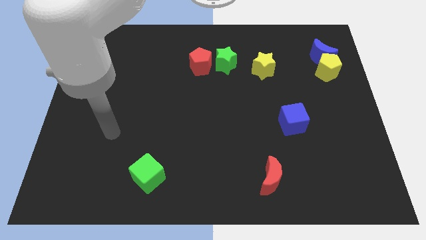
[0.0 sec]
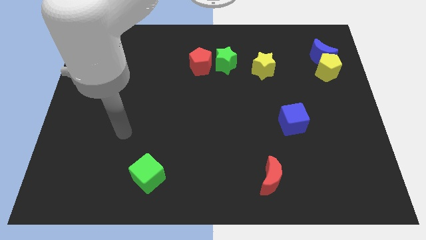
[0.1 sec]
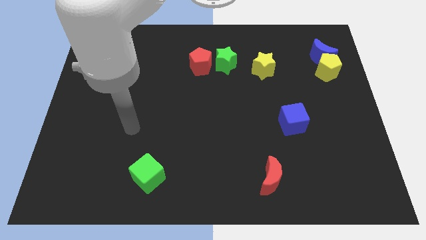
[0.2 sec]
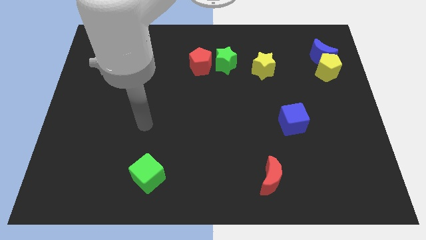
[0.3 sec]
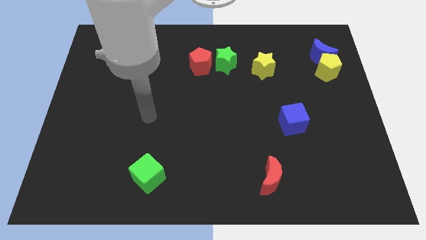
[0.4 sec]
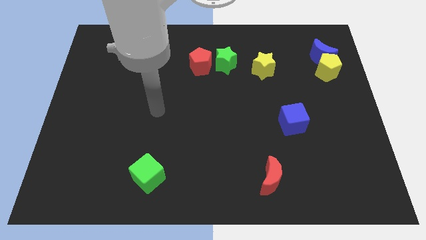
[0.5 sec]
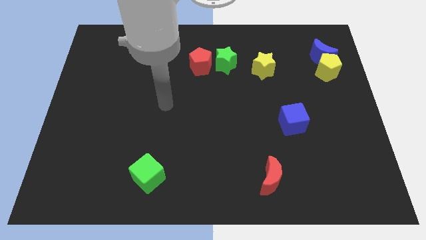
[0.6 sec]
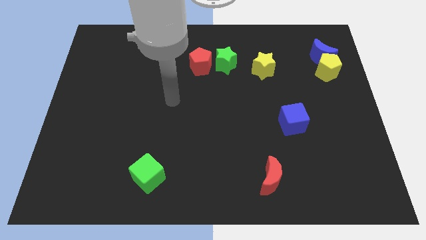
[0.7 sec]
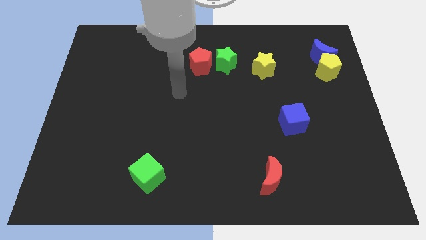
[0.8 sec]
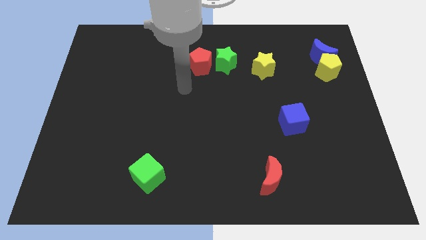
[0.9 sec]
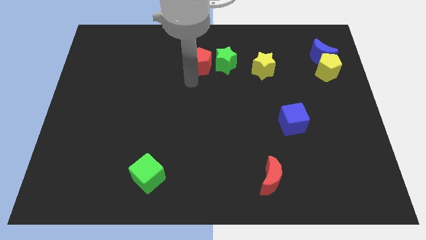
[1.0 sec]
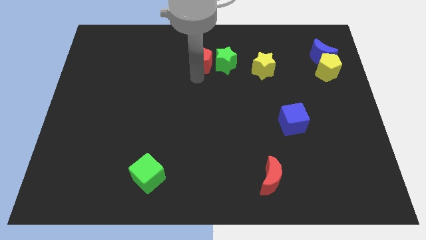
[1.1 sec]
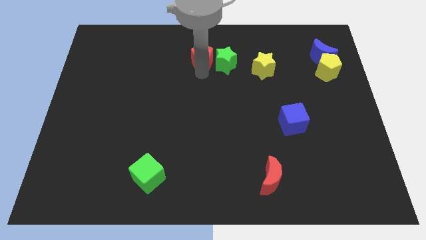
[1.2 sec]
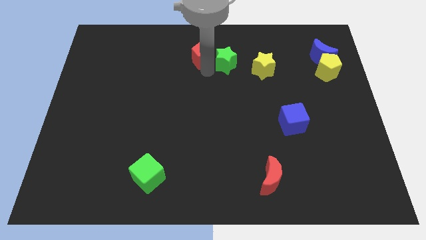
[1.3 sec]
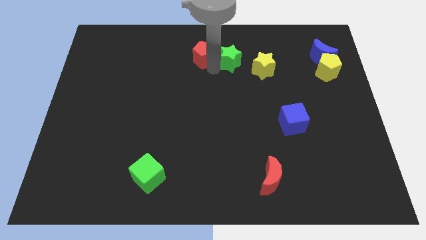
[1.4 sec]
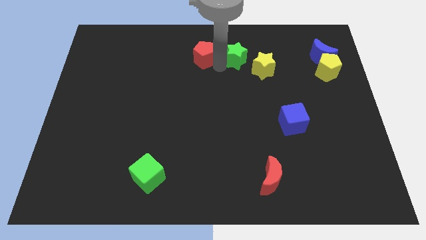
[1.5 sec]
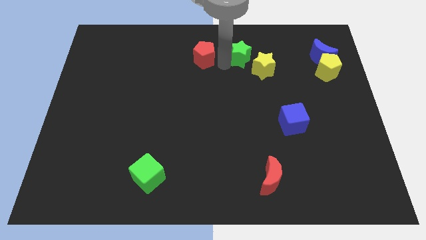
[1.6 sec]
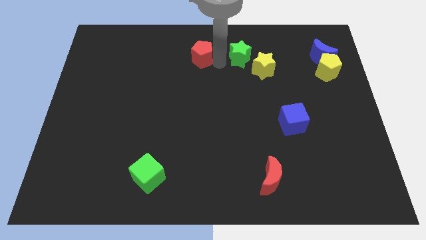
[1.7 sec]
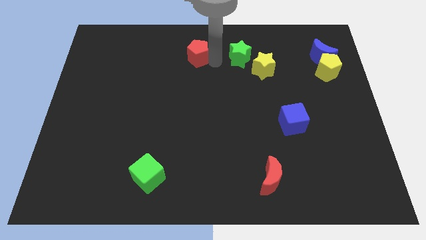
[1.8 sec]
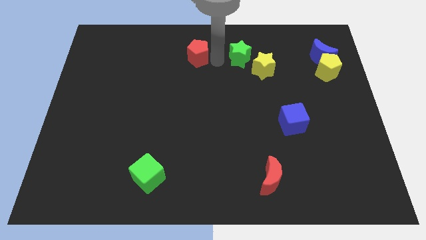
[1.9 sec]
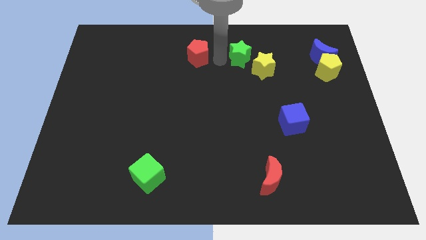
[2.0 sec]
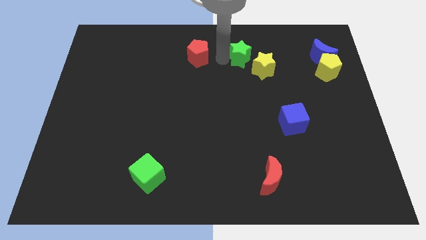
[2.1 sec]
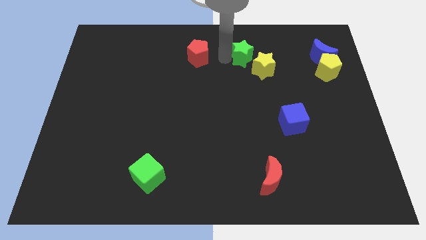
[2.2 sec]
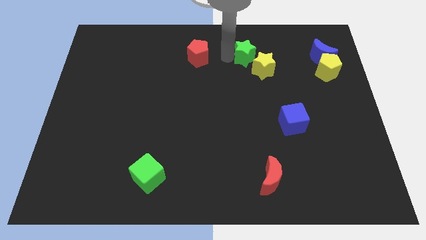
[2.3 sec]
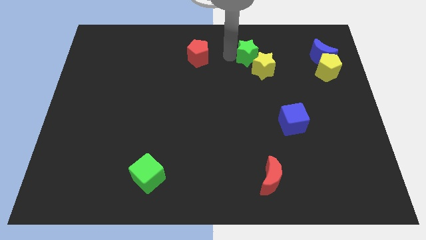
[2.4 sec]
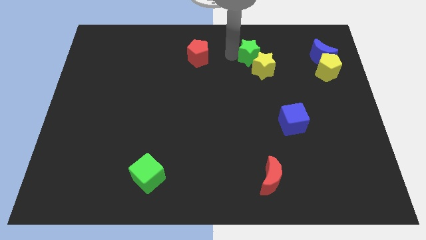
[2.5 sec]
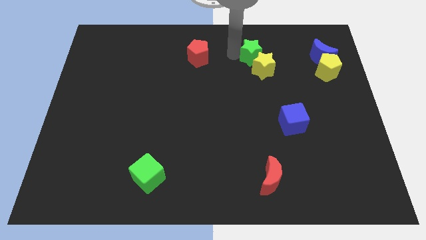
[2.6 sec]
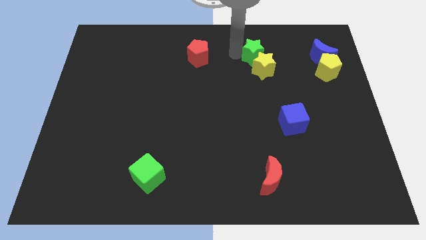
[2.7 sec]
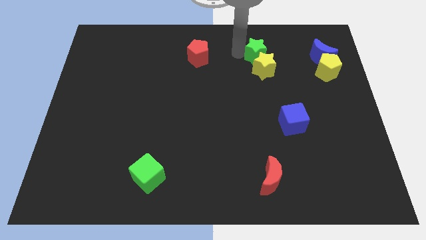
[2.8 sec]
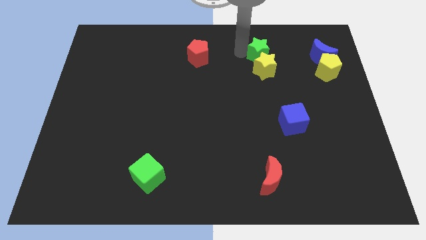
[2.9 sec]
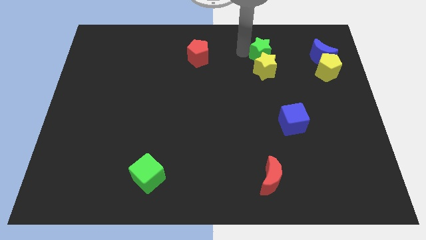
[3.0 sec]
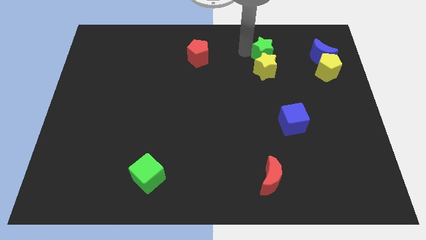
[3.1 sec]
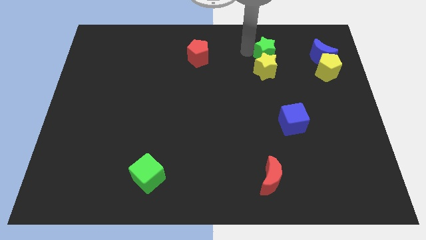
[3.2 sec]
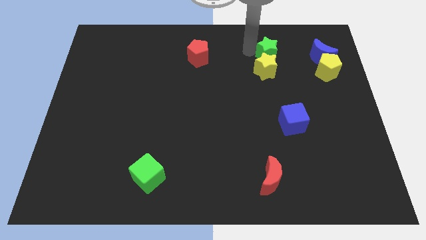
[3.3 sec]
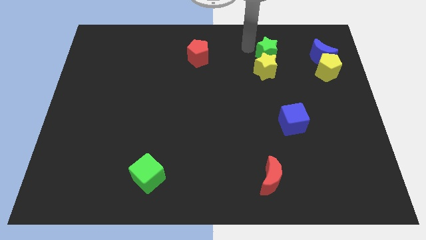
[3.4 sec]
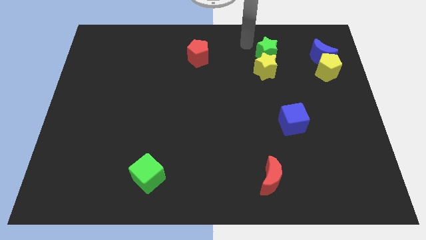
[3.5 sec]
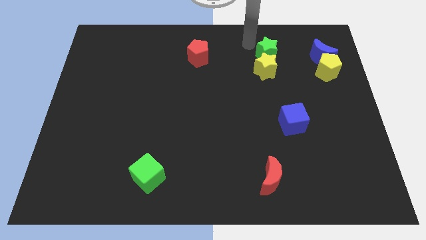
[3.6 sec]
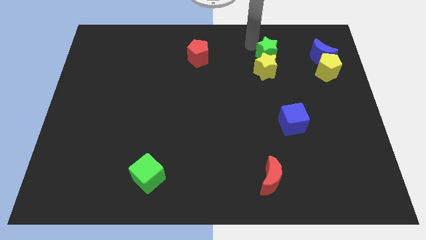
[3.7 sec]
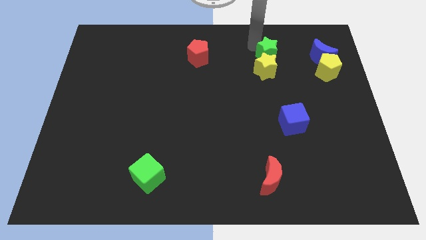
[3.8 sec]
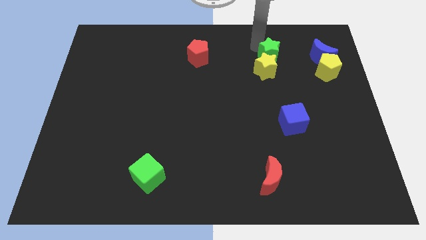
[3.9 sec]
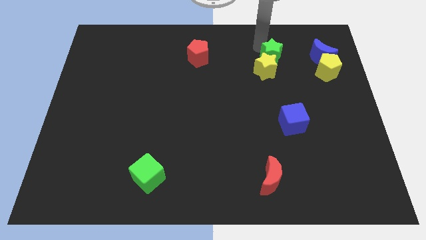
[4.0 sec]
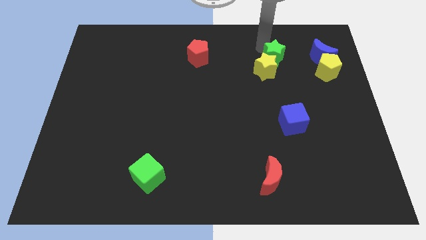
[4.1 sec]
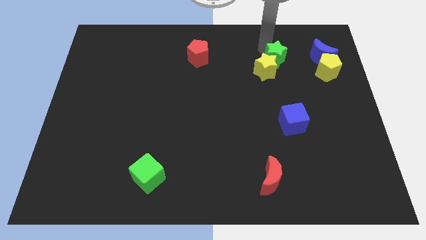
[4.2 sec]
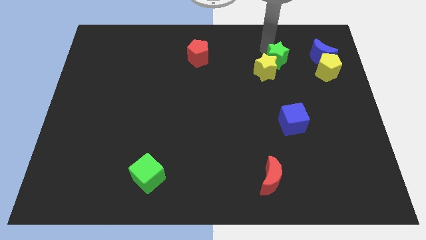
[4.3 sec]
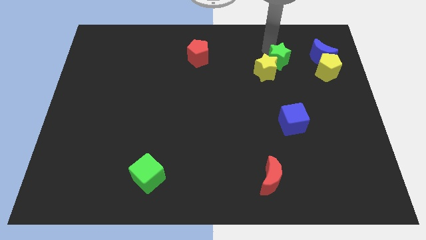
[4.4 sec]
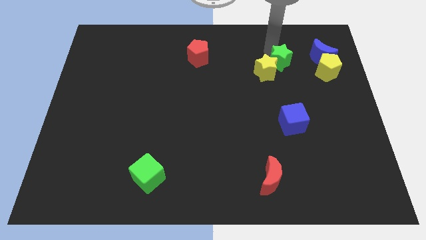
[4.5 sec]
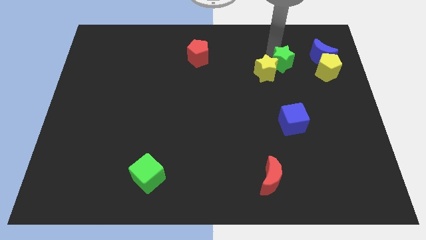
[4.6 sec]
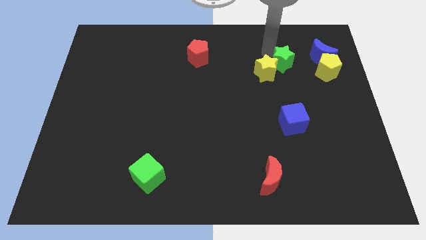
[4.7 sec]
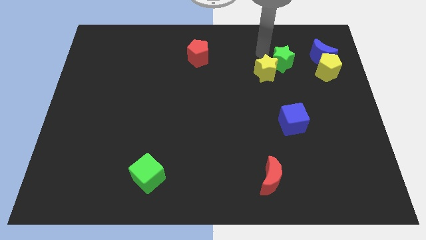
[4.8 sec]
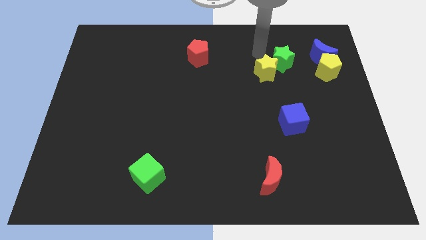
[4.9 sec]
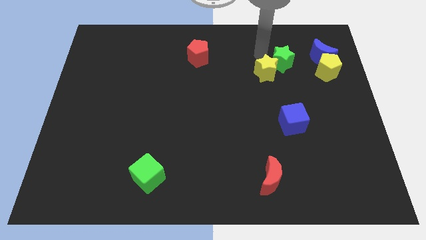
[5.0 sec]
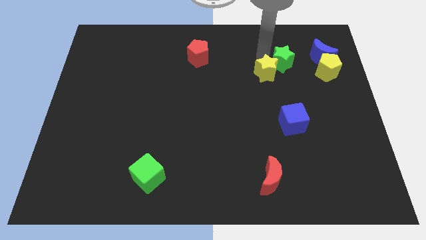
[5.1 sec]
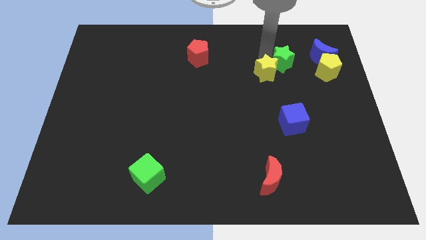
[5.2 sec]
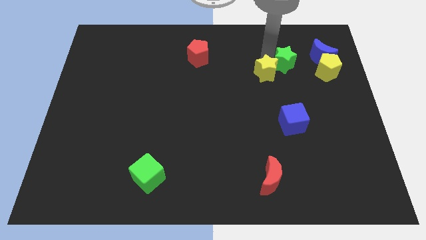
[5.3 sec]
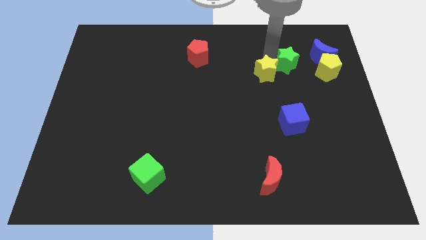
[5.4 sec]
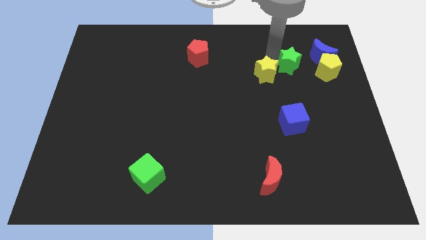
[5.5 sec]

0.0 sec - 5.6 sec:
put the green star to the bottom left of the blue moon

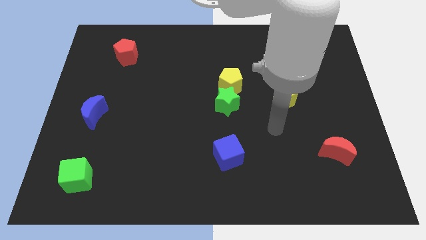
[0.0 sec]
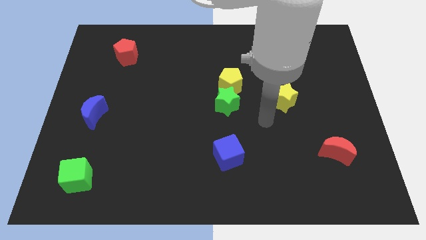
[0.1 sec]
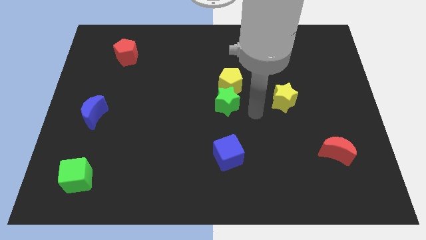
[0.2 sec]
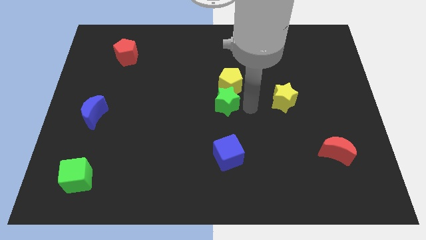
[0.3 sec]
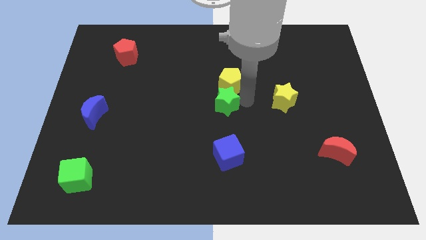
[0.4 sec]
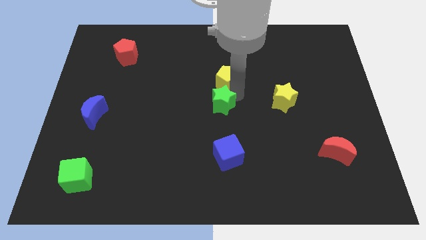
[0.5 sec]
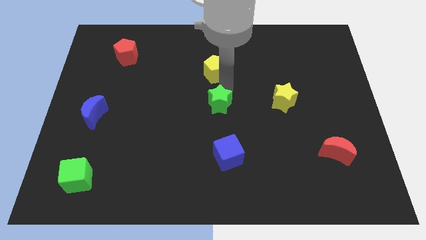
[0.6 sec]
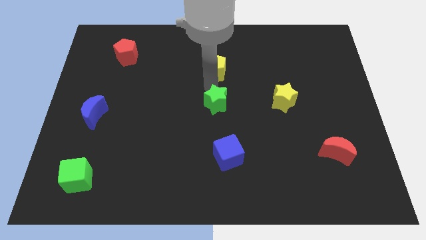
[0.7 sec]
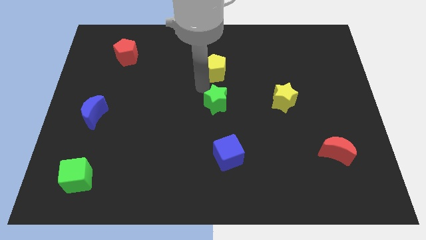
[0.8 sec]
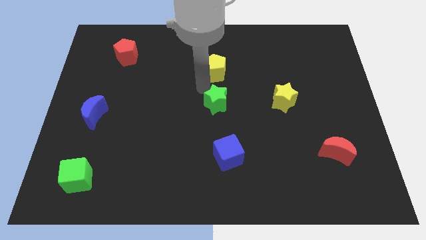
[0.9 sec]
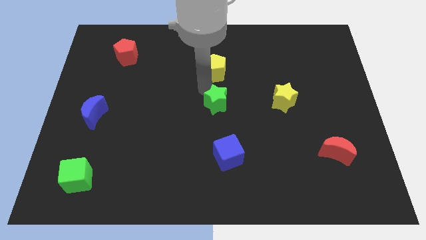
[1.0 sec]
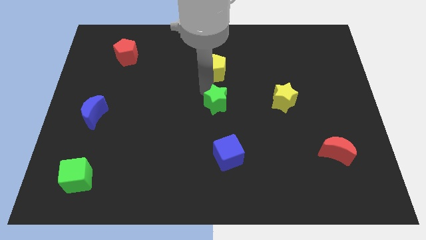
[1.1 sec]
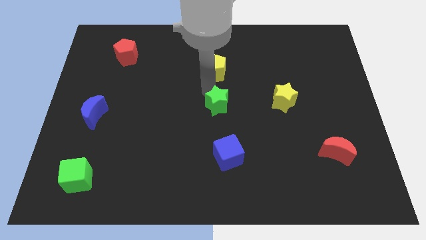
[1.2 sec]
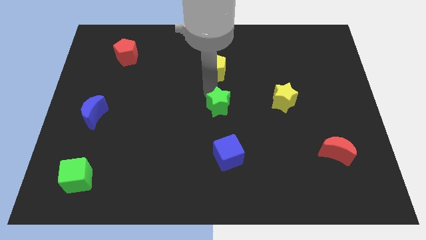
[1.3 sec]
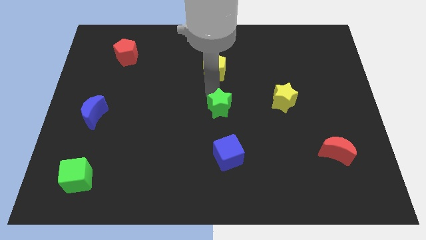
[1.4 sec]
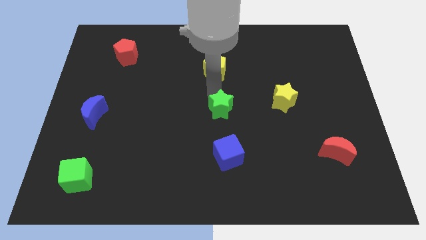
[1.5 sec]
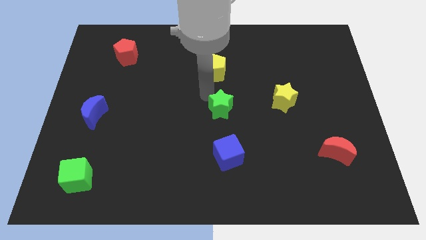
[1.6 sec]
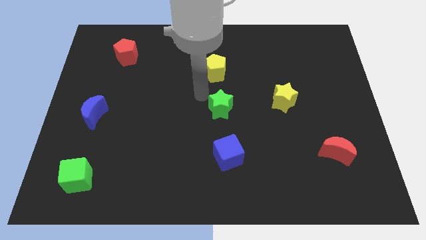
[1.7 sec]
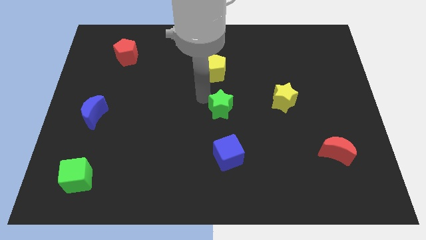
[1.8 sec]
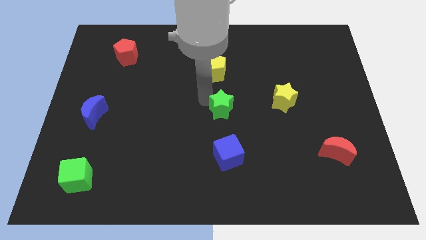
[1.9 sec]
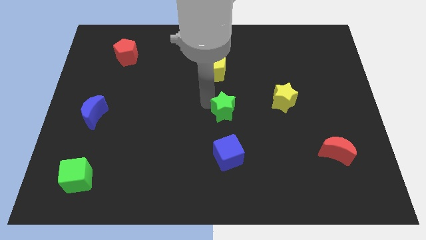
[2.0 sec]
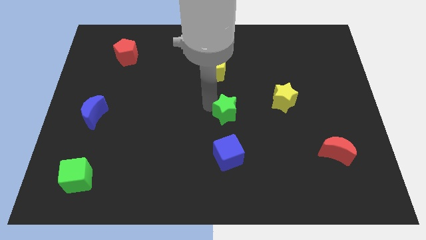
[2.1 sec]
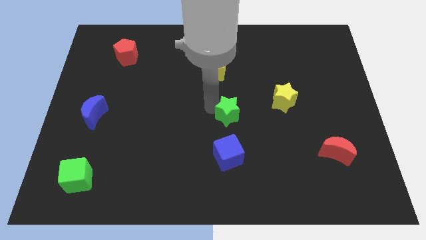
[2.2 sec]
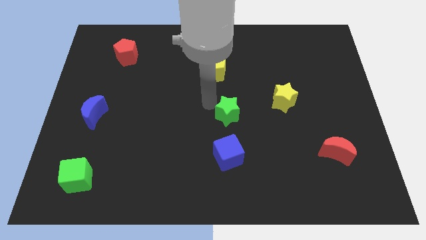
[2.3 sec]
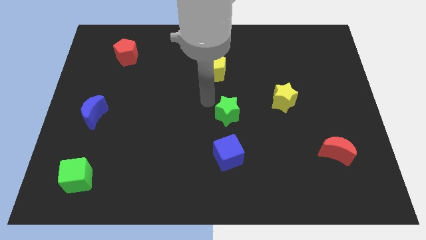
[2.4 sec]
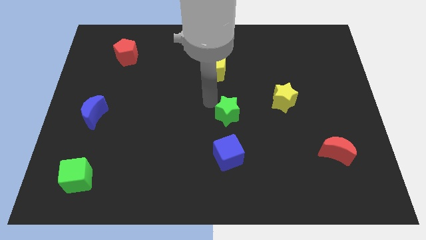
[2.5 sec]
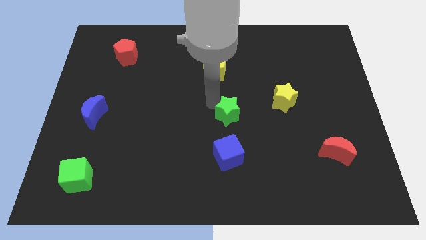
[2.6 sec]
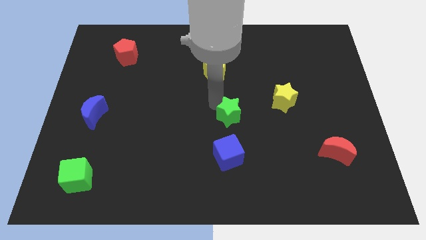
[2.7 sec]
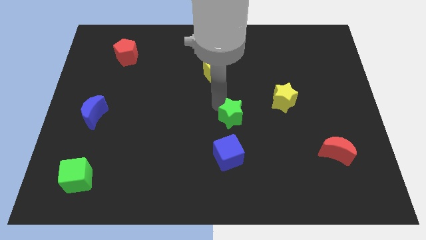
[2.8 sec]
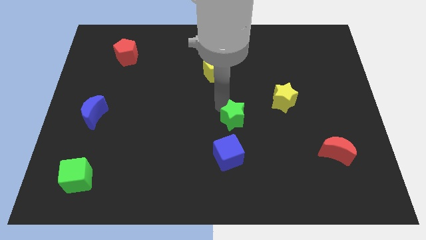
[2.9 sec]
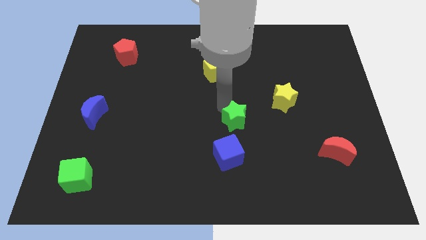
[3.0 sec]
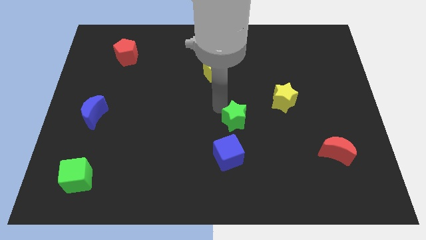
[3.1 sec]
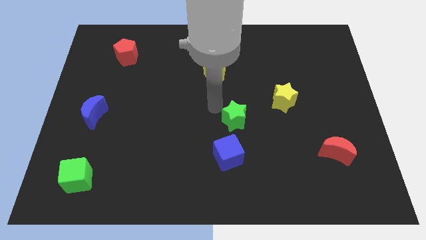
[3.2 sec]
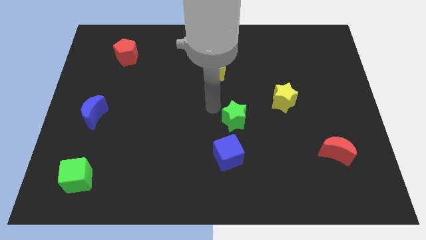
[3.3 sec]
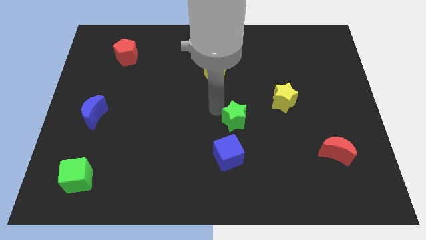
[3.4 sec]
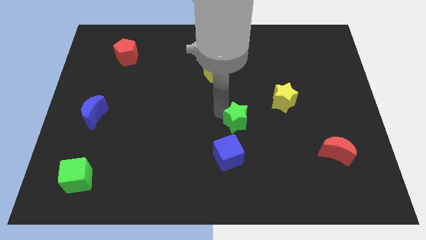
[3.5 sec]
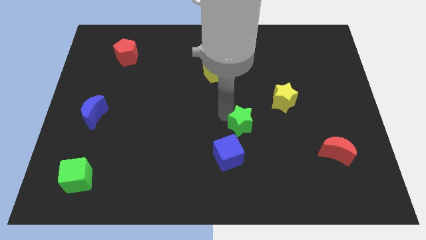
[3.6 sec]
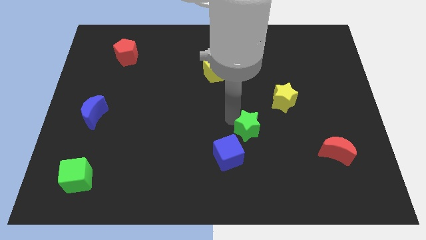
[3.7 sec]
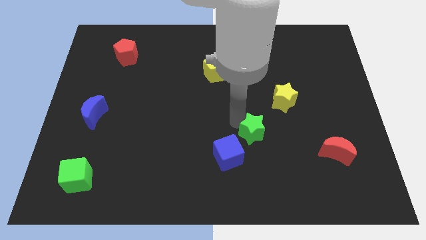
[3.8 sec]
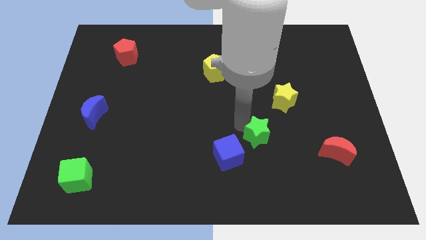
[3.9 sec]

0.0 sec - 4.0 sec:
put the green star to the right of the blue cube
